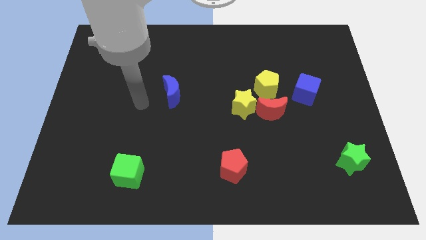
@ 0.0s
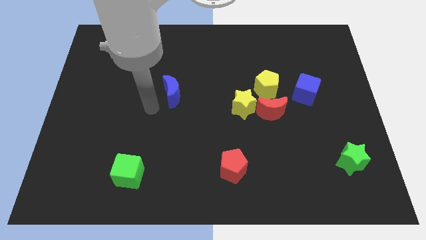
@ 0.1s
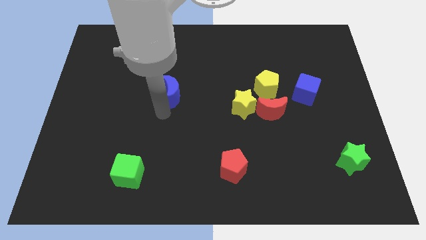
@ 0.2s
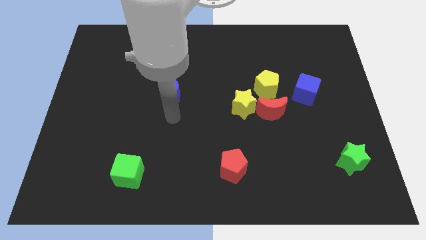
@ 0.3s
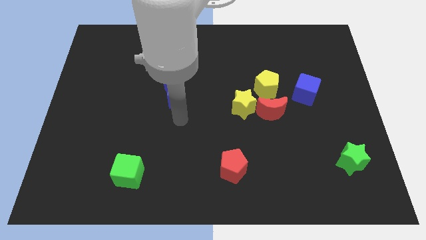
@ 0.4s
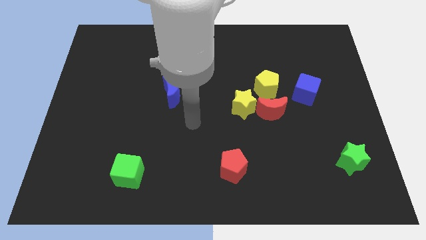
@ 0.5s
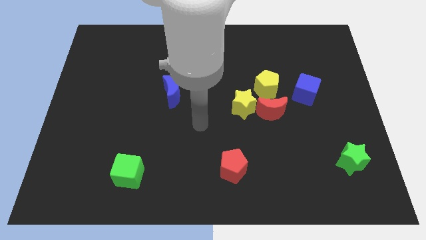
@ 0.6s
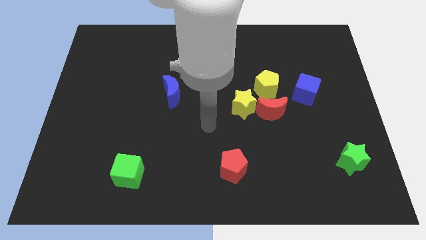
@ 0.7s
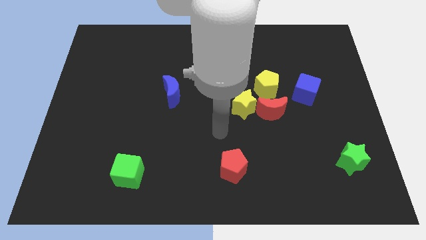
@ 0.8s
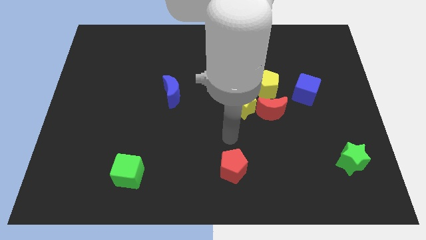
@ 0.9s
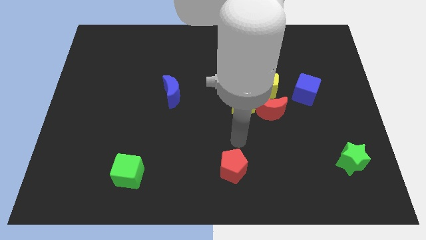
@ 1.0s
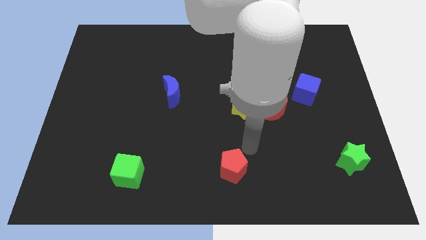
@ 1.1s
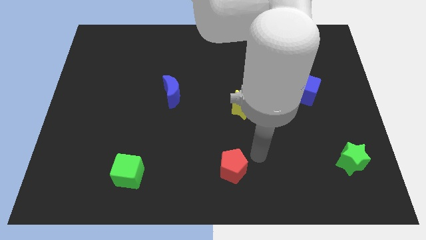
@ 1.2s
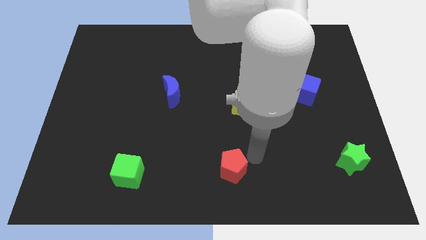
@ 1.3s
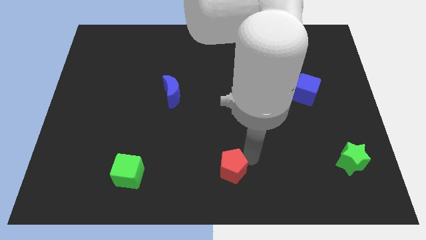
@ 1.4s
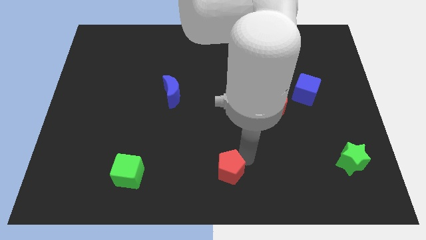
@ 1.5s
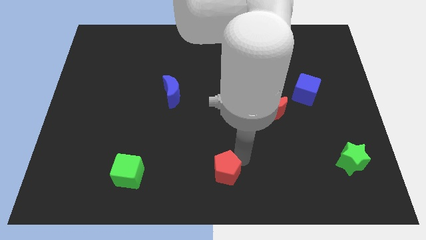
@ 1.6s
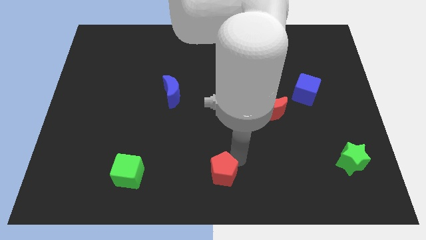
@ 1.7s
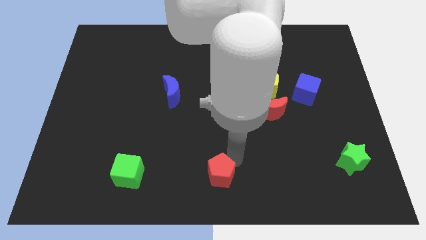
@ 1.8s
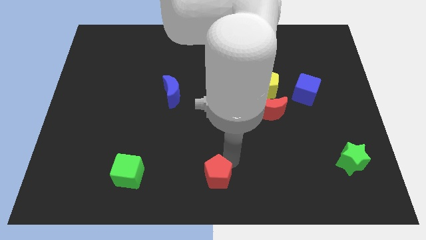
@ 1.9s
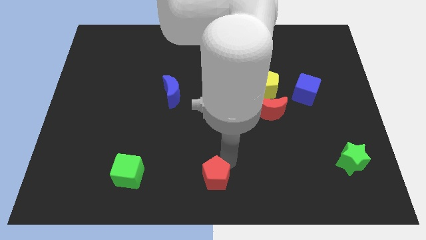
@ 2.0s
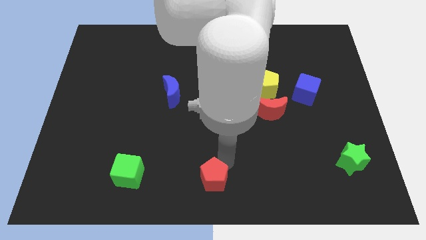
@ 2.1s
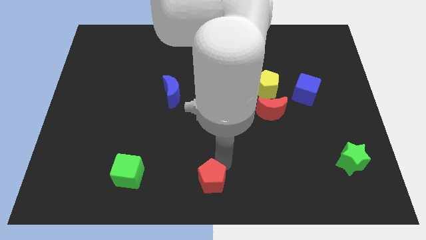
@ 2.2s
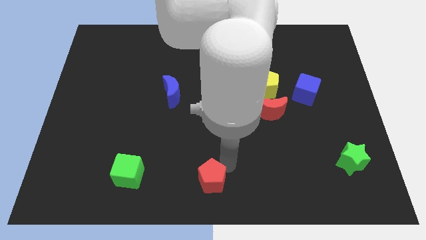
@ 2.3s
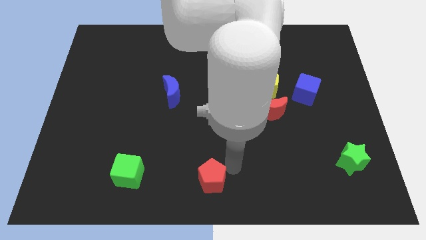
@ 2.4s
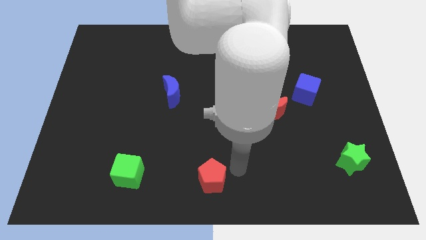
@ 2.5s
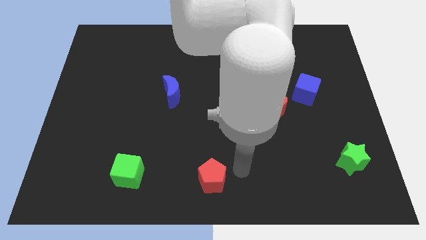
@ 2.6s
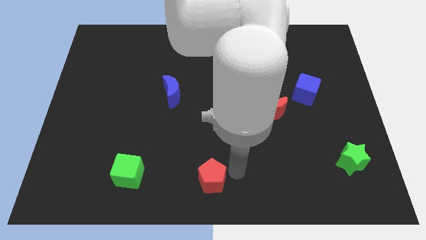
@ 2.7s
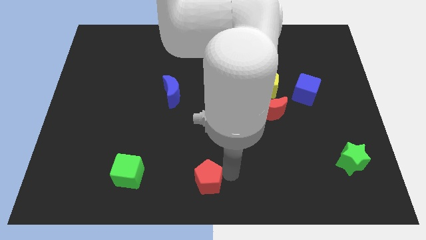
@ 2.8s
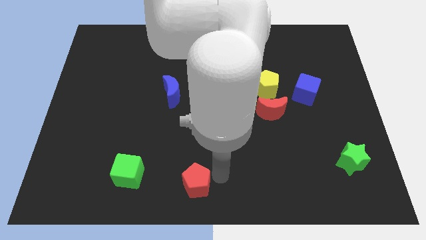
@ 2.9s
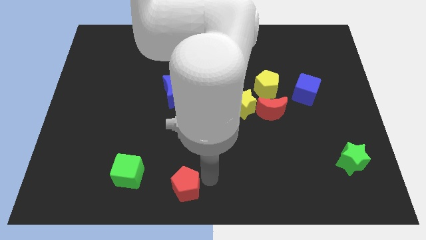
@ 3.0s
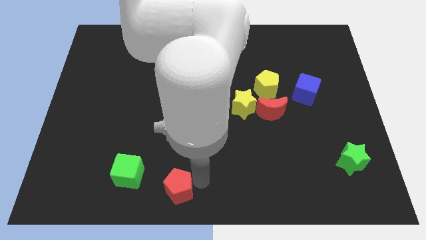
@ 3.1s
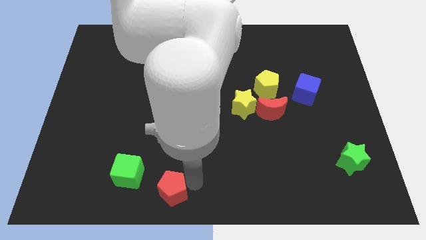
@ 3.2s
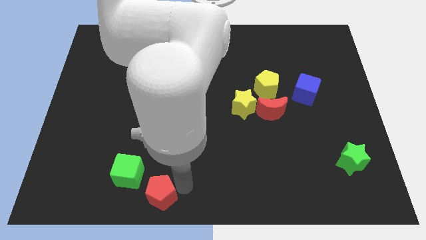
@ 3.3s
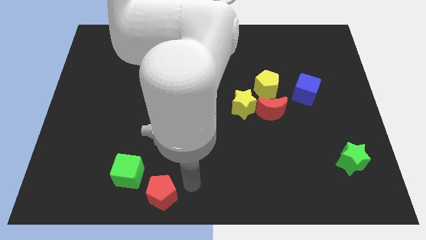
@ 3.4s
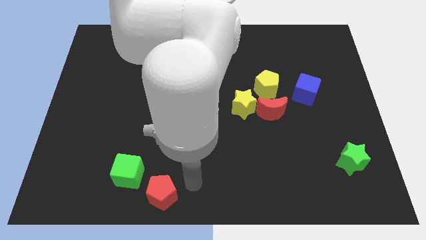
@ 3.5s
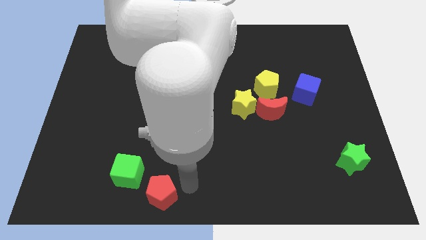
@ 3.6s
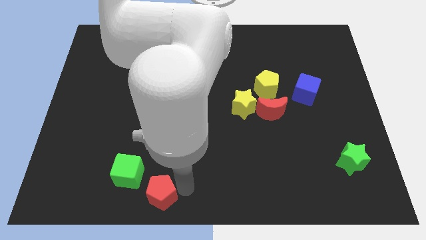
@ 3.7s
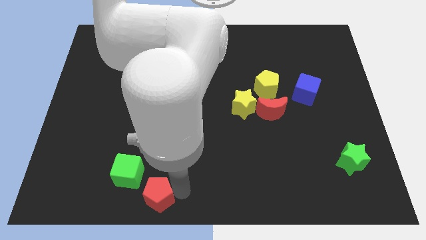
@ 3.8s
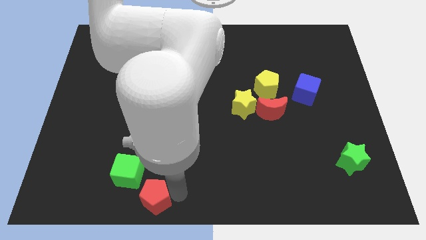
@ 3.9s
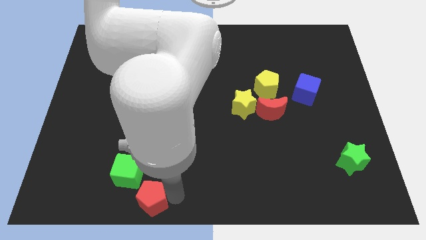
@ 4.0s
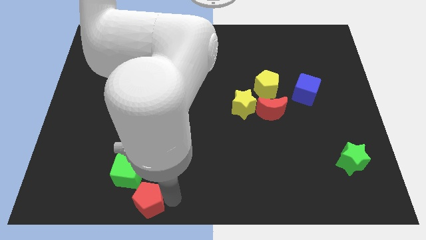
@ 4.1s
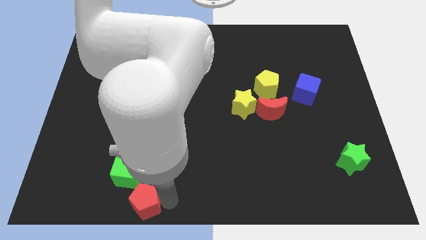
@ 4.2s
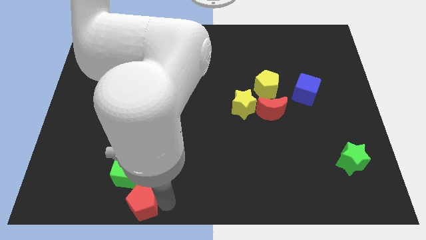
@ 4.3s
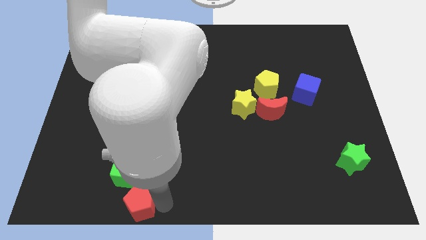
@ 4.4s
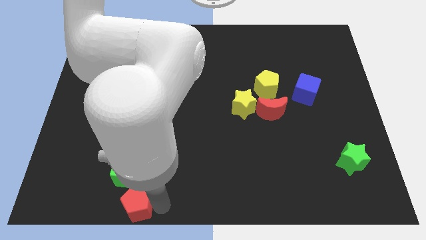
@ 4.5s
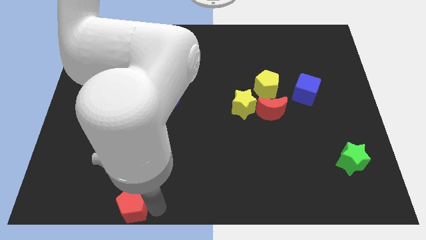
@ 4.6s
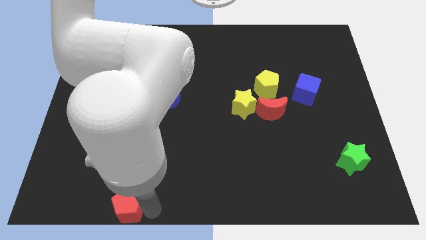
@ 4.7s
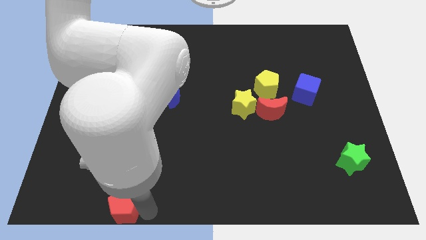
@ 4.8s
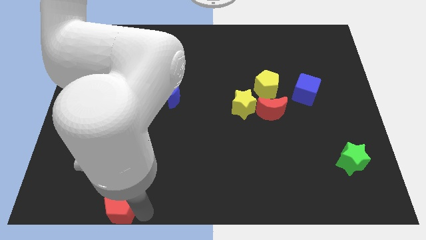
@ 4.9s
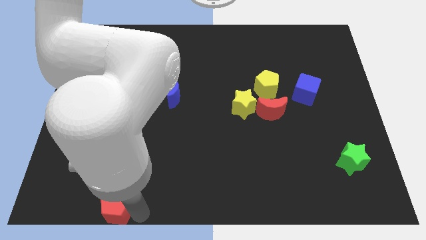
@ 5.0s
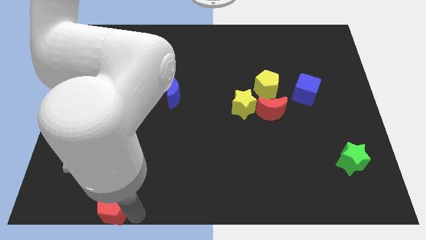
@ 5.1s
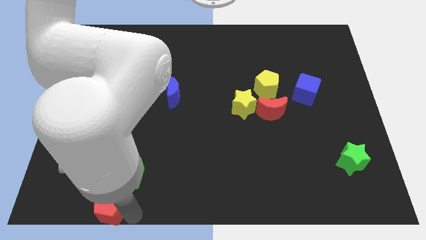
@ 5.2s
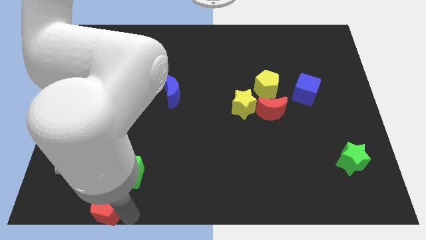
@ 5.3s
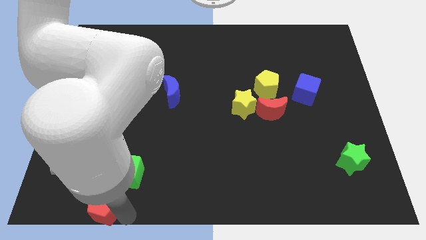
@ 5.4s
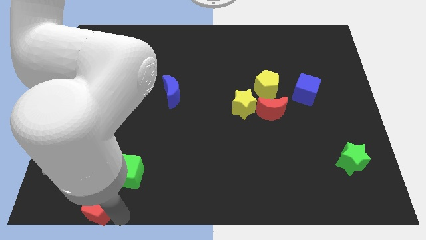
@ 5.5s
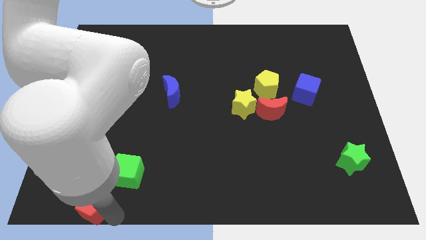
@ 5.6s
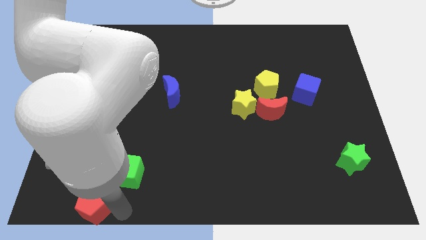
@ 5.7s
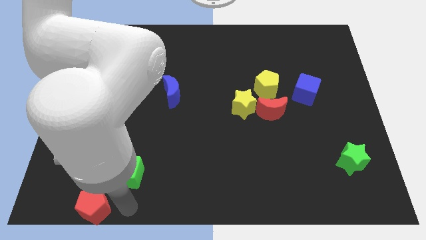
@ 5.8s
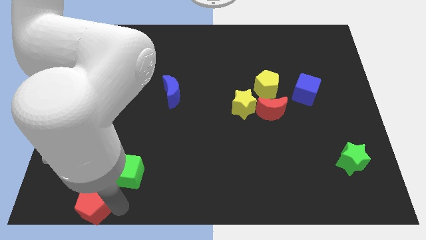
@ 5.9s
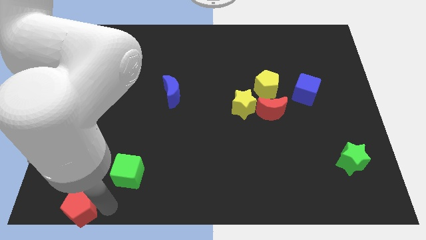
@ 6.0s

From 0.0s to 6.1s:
slide the red pentagon to the bottom left
